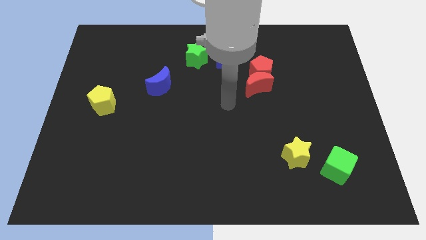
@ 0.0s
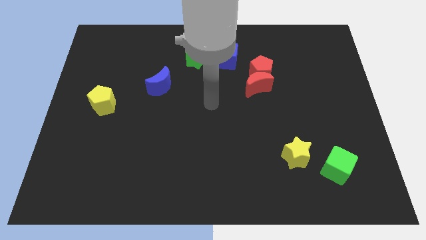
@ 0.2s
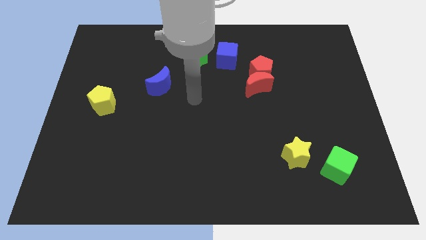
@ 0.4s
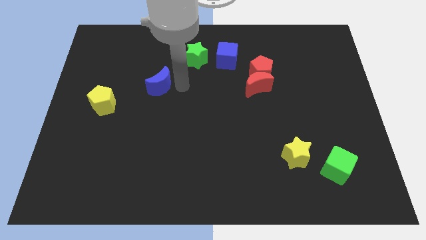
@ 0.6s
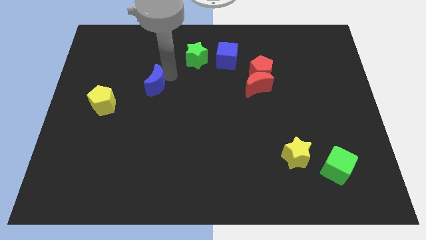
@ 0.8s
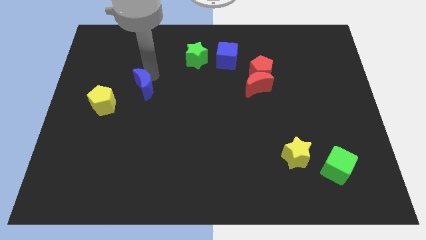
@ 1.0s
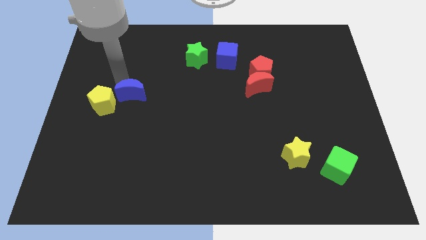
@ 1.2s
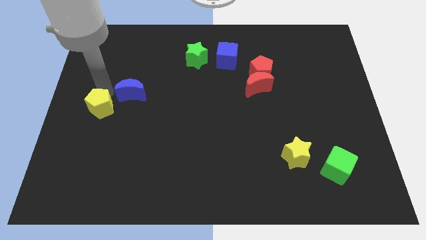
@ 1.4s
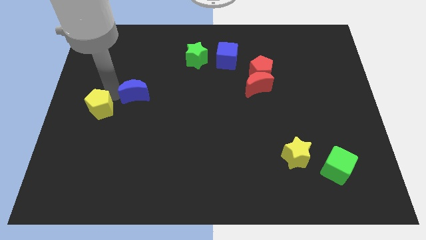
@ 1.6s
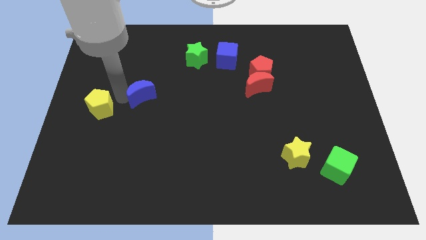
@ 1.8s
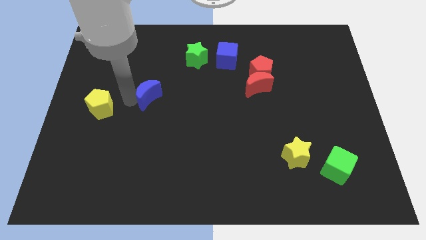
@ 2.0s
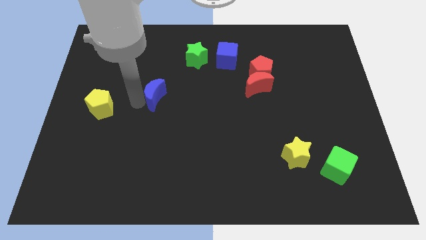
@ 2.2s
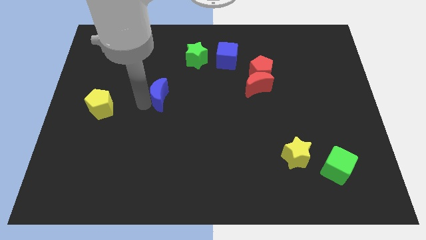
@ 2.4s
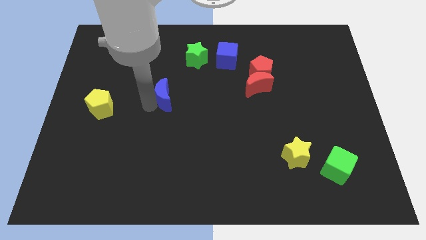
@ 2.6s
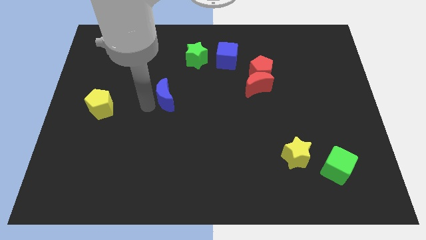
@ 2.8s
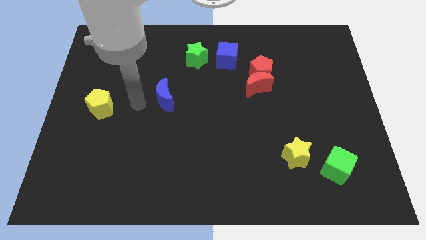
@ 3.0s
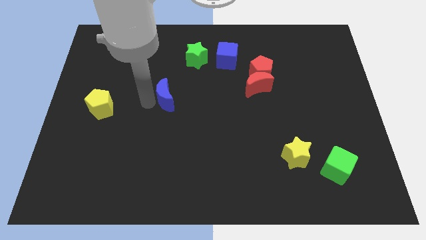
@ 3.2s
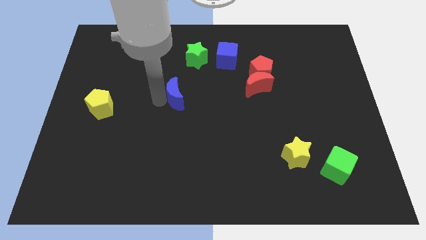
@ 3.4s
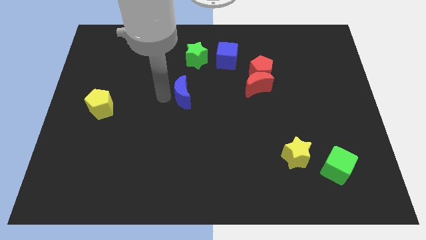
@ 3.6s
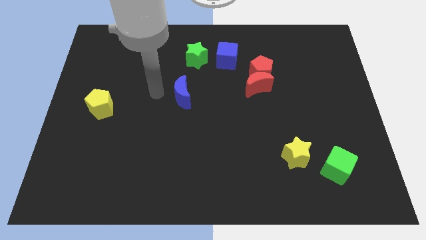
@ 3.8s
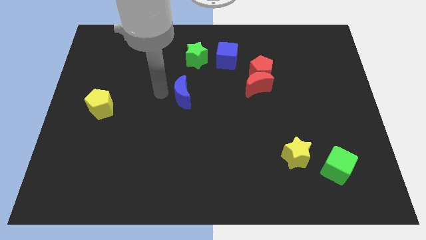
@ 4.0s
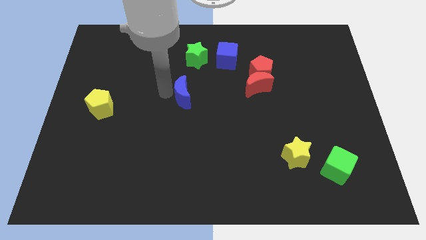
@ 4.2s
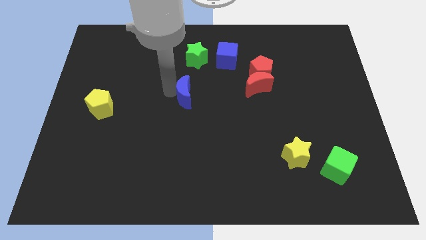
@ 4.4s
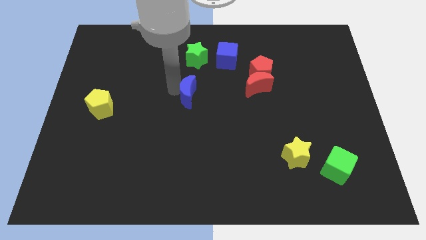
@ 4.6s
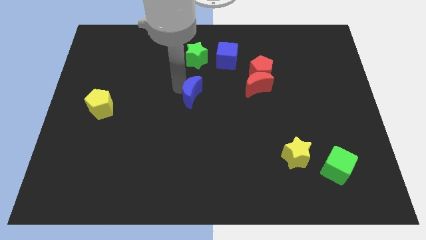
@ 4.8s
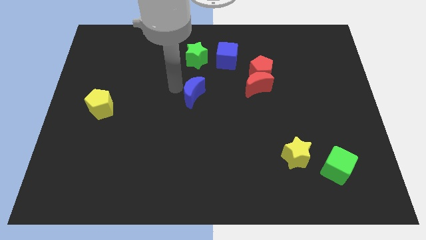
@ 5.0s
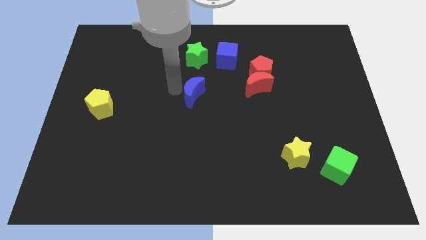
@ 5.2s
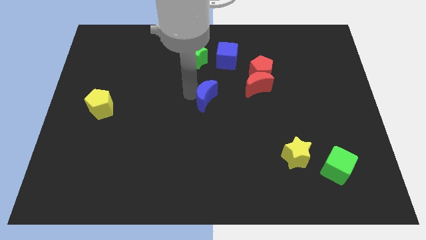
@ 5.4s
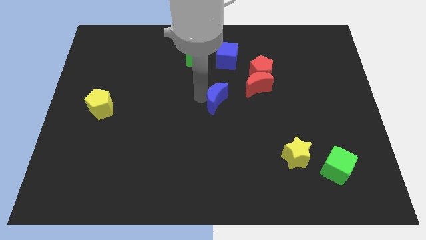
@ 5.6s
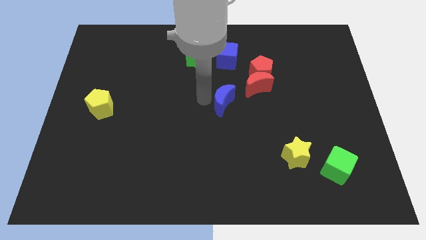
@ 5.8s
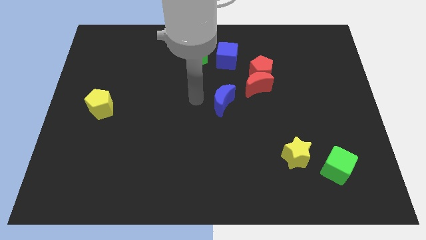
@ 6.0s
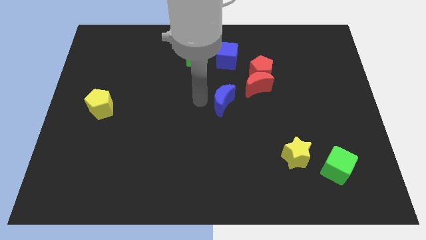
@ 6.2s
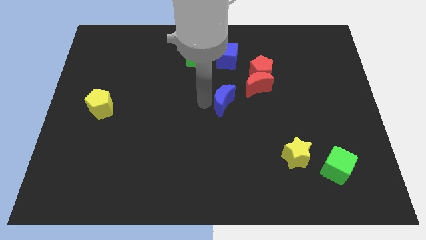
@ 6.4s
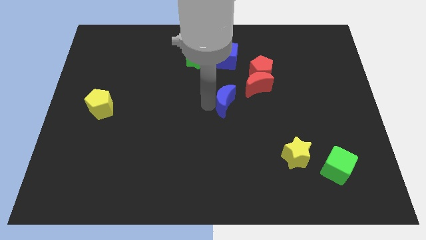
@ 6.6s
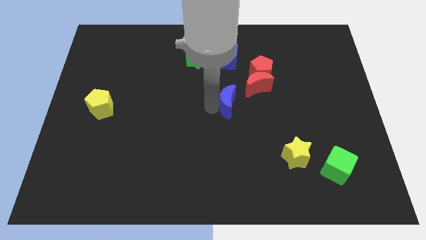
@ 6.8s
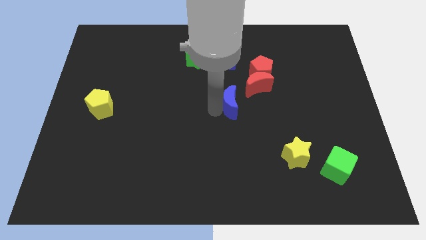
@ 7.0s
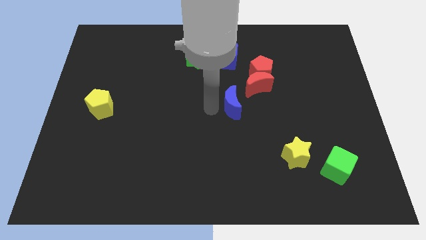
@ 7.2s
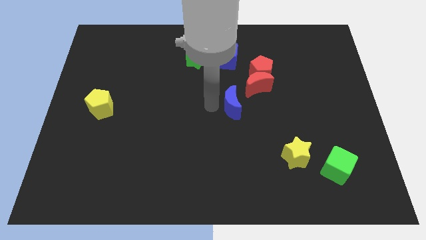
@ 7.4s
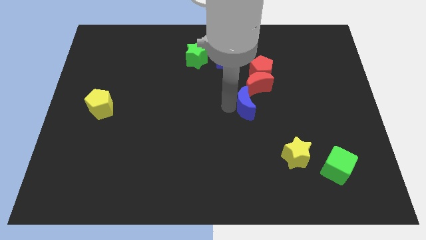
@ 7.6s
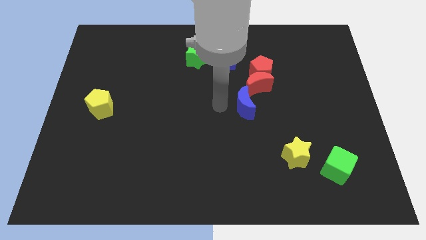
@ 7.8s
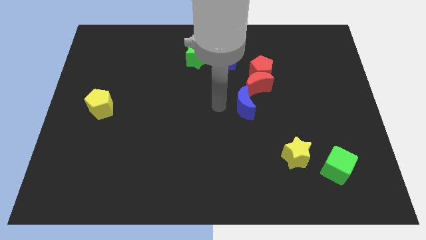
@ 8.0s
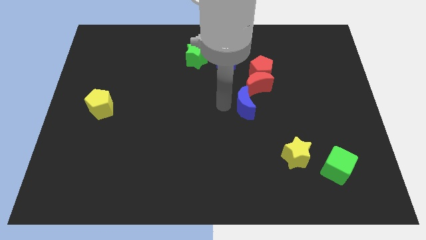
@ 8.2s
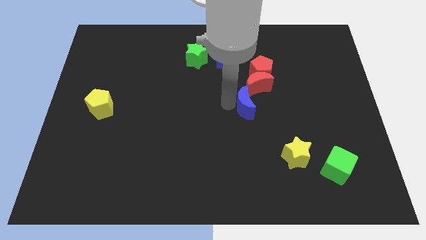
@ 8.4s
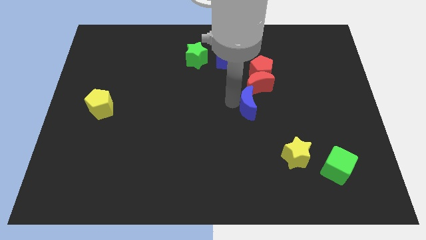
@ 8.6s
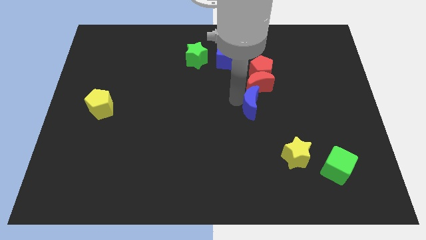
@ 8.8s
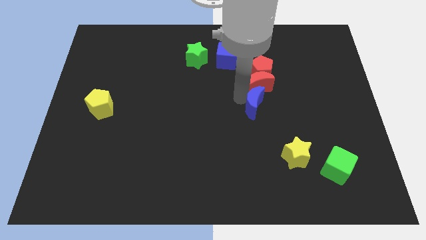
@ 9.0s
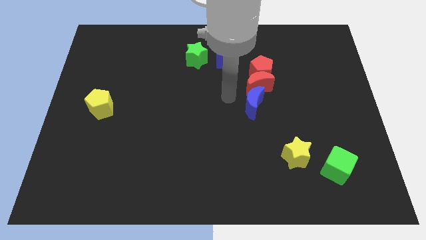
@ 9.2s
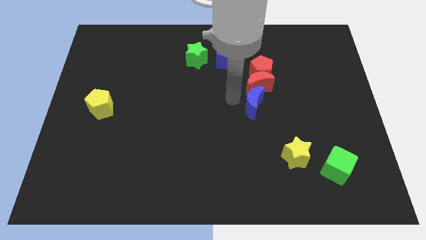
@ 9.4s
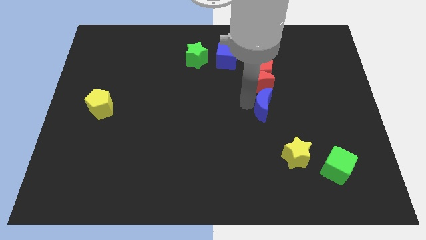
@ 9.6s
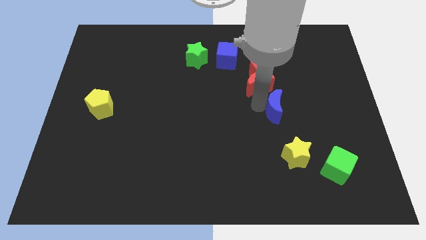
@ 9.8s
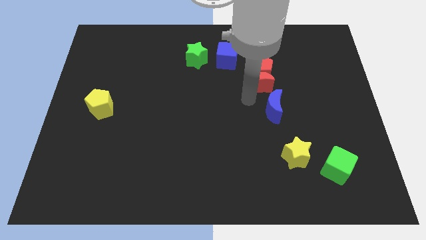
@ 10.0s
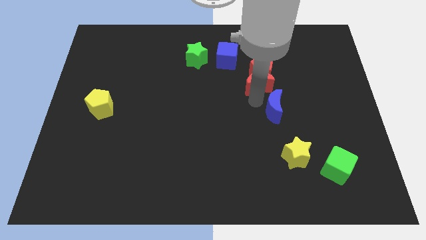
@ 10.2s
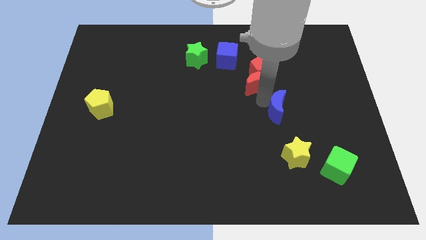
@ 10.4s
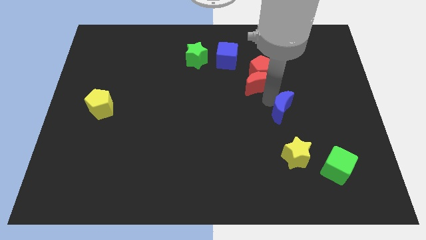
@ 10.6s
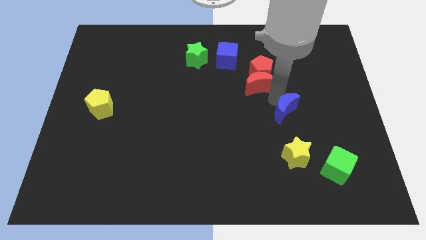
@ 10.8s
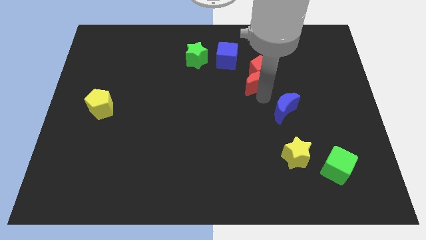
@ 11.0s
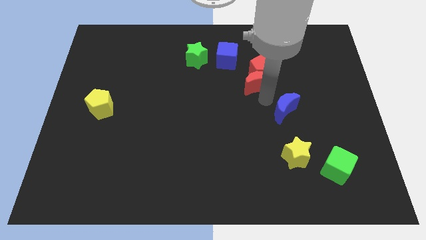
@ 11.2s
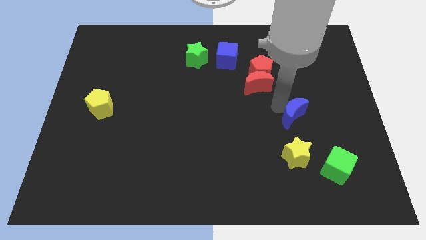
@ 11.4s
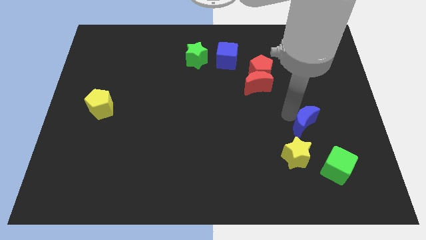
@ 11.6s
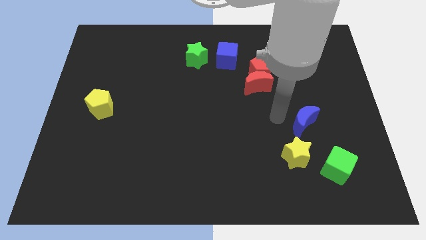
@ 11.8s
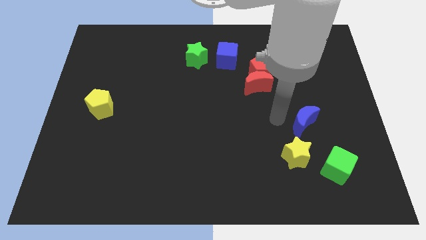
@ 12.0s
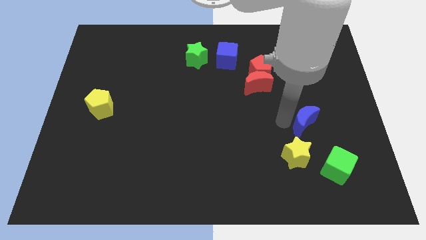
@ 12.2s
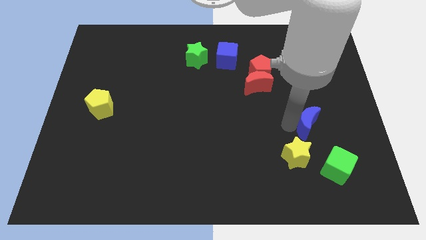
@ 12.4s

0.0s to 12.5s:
push the blue moon to the top side of the green cube
